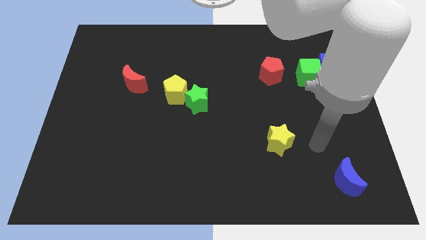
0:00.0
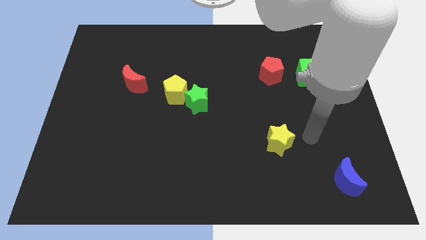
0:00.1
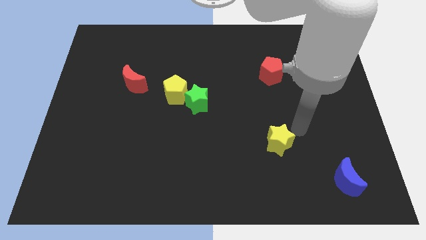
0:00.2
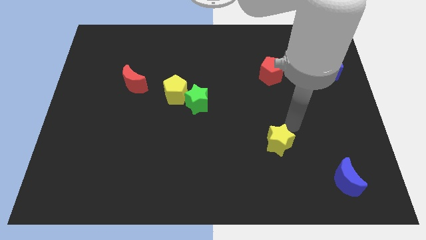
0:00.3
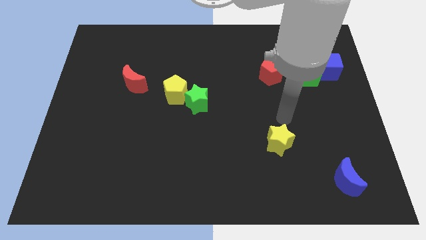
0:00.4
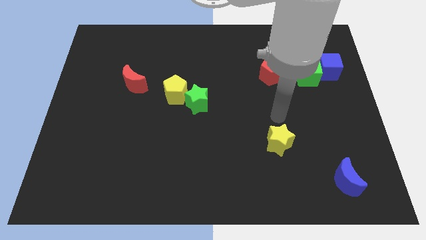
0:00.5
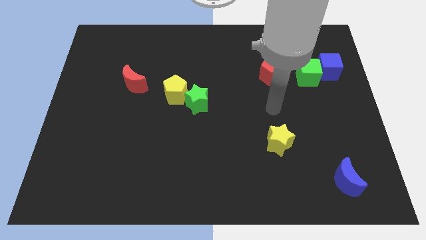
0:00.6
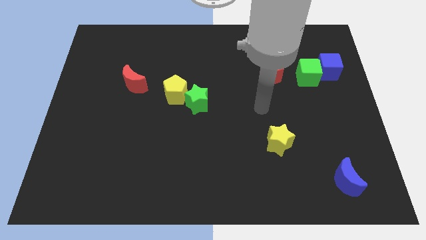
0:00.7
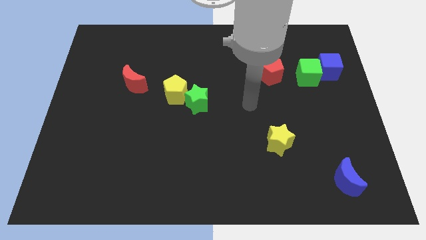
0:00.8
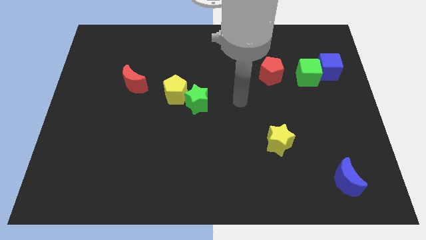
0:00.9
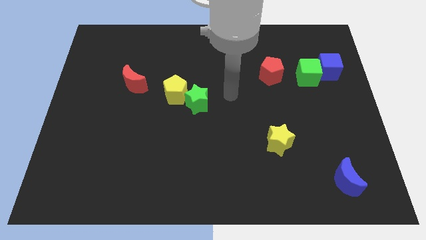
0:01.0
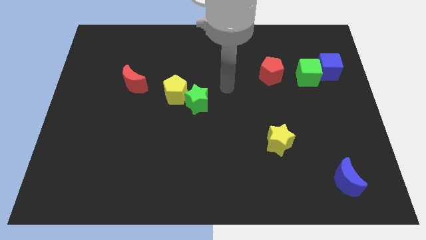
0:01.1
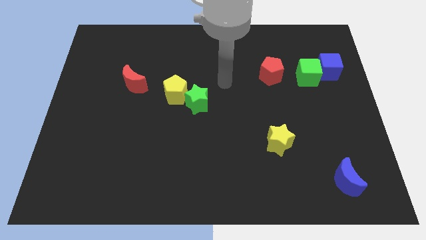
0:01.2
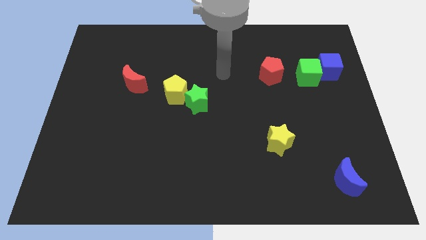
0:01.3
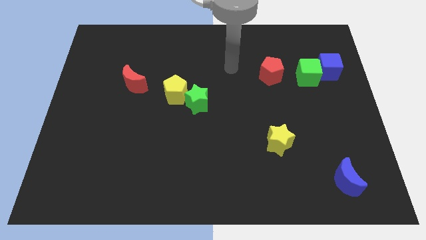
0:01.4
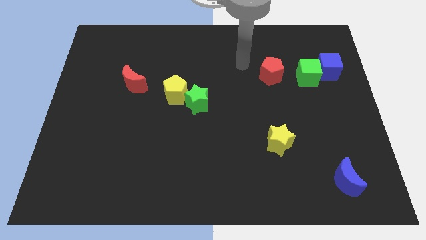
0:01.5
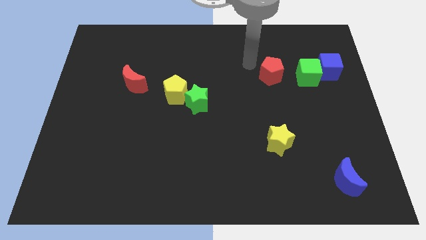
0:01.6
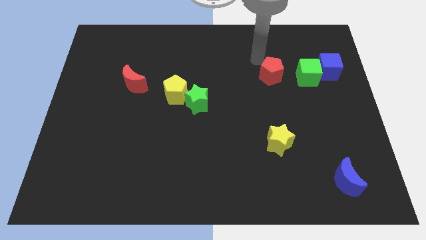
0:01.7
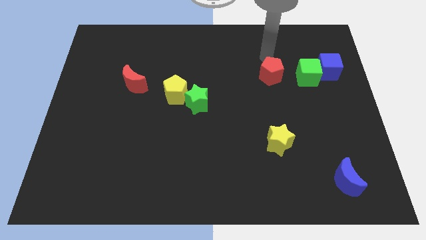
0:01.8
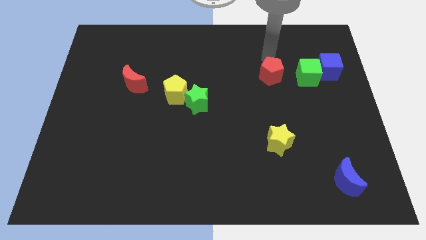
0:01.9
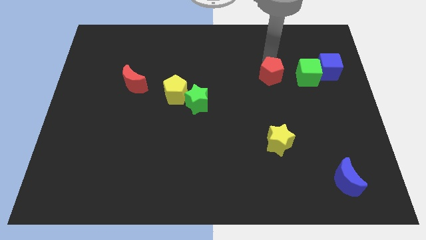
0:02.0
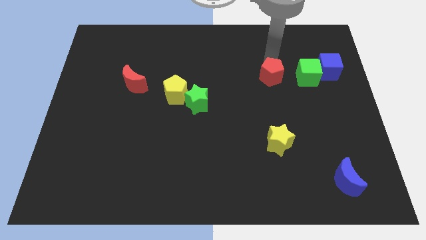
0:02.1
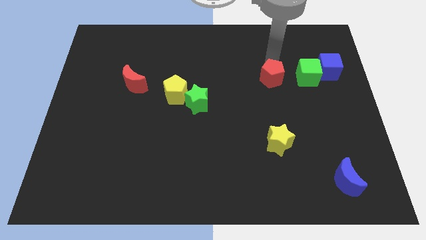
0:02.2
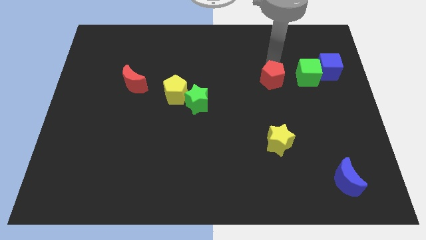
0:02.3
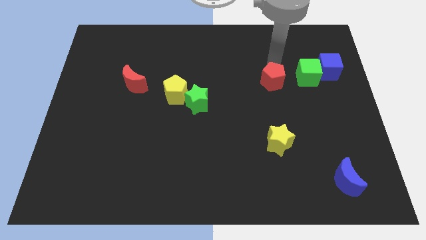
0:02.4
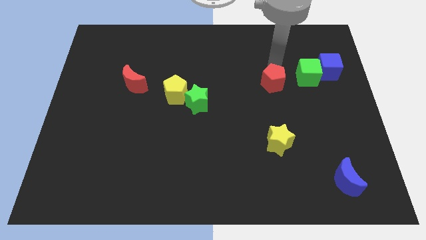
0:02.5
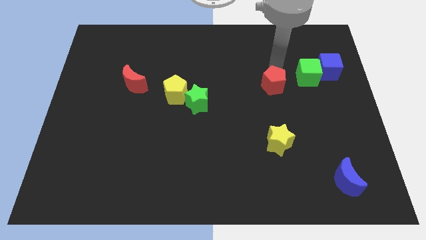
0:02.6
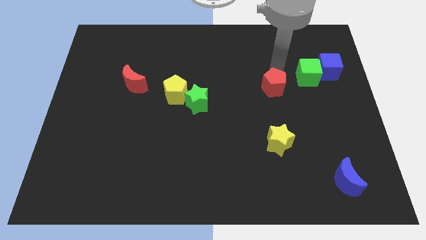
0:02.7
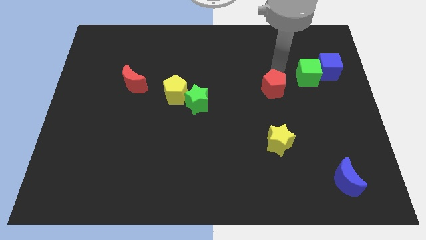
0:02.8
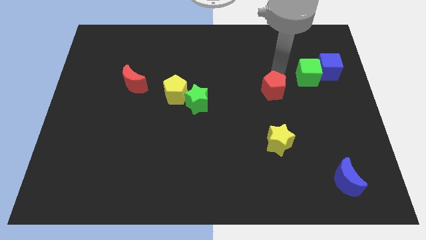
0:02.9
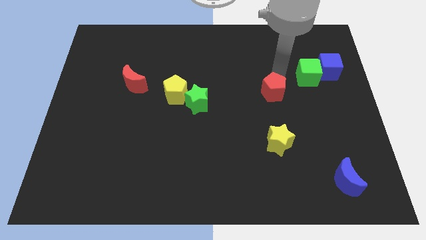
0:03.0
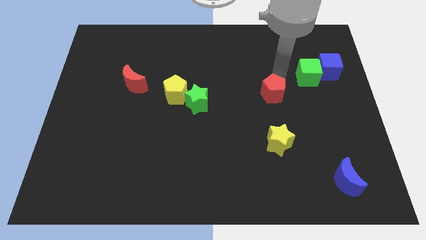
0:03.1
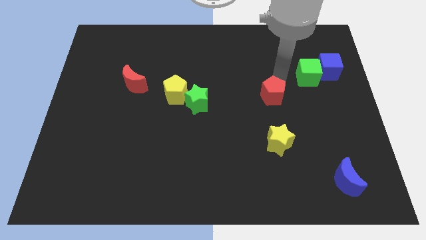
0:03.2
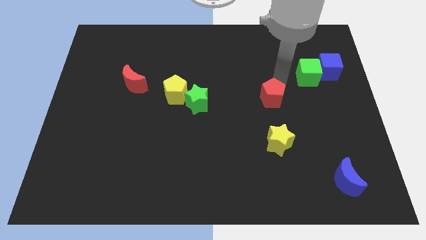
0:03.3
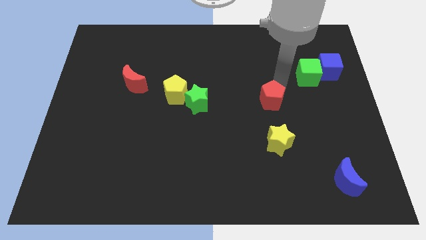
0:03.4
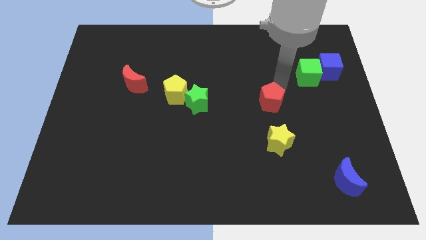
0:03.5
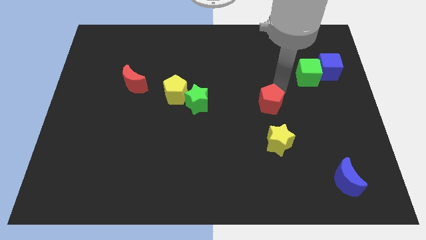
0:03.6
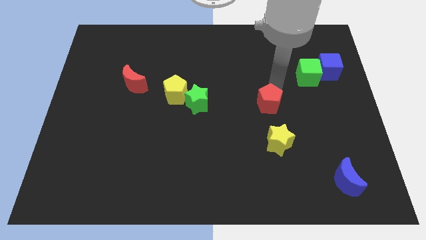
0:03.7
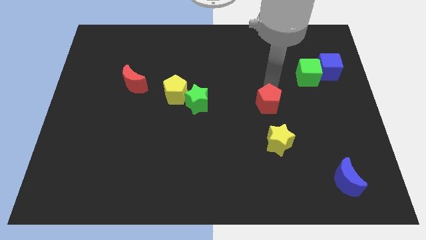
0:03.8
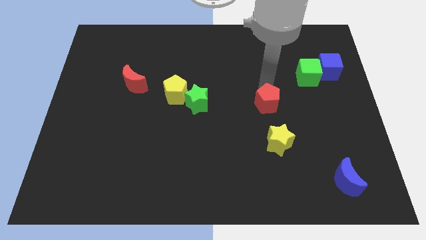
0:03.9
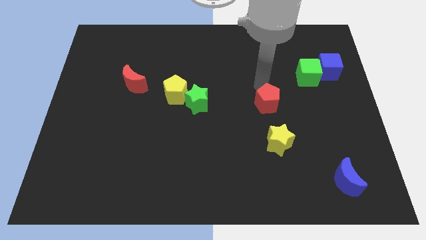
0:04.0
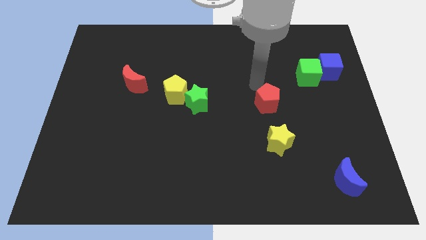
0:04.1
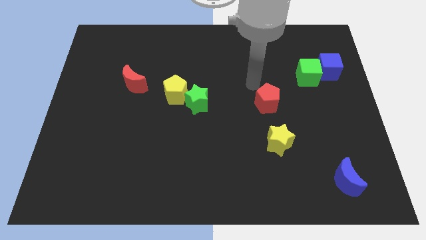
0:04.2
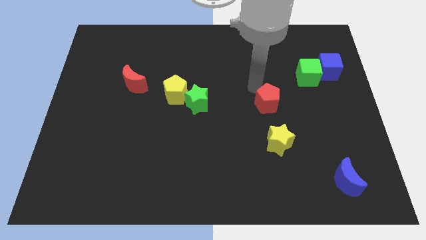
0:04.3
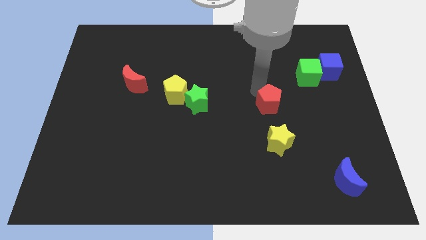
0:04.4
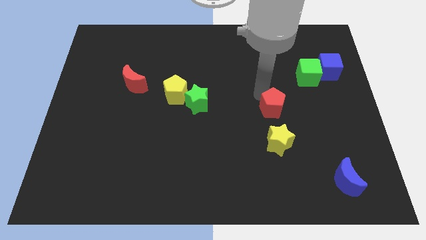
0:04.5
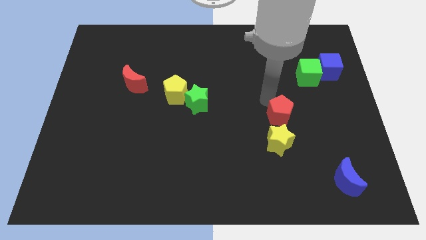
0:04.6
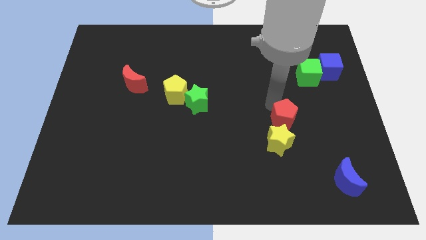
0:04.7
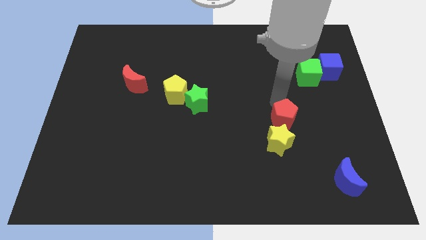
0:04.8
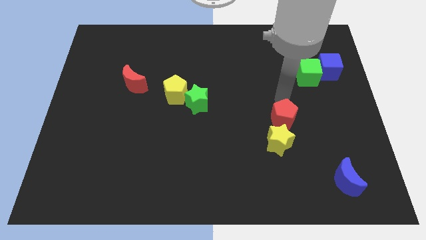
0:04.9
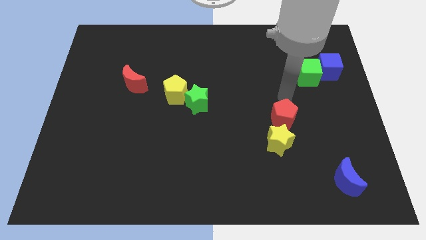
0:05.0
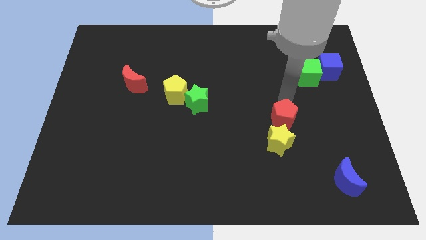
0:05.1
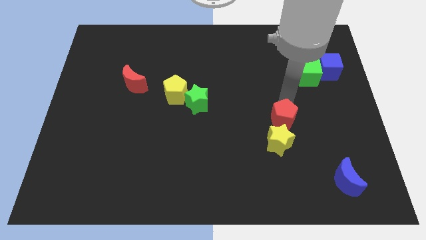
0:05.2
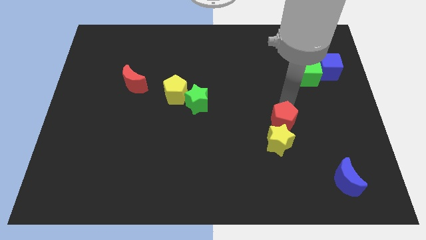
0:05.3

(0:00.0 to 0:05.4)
push the red pentagon next to the yellow star

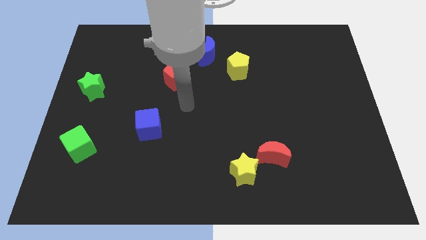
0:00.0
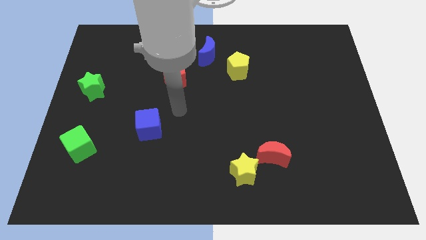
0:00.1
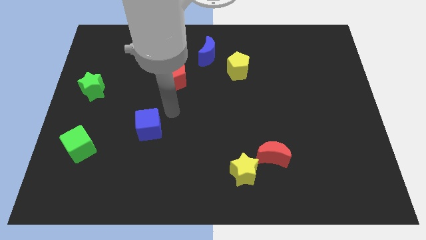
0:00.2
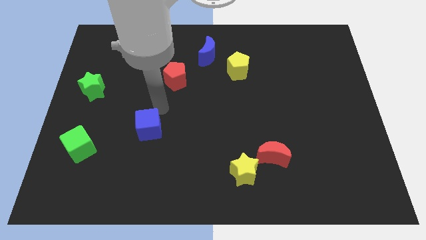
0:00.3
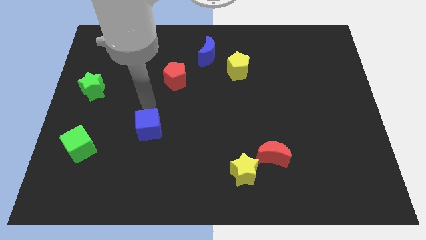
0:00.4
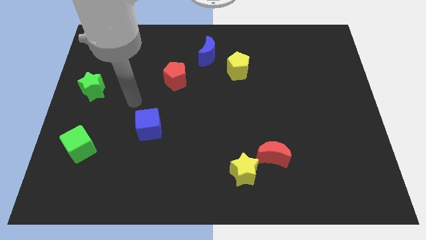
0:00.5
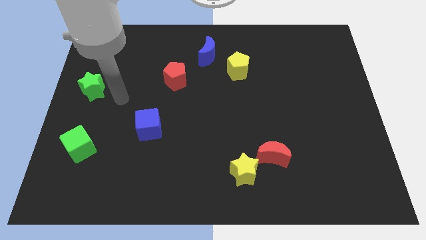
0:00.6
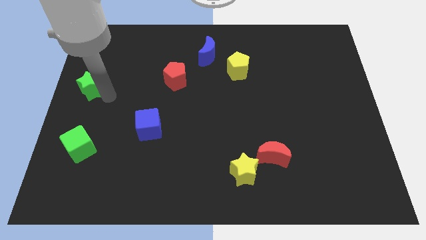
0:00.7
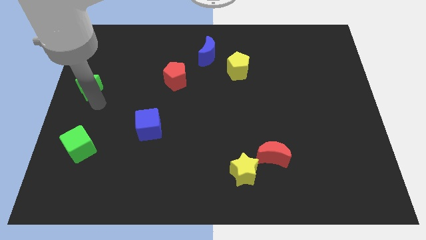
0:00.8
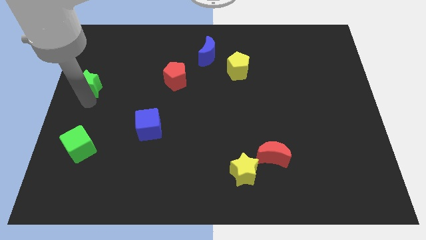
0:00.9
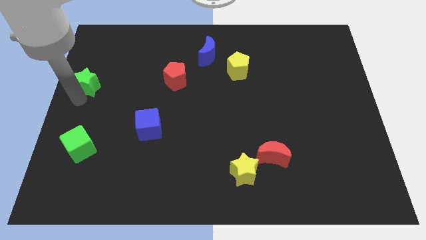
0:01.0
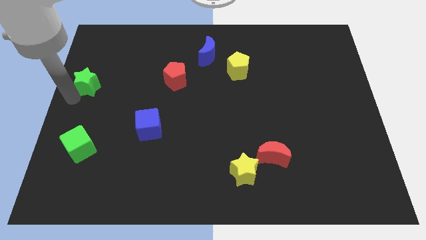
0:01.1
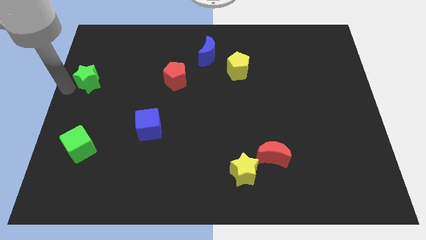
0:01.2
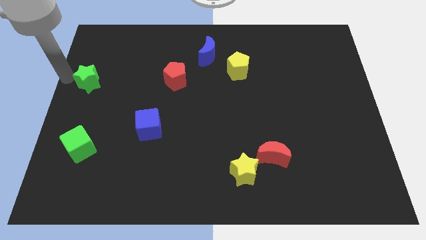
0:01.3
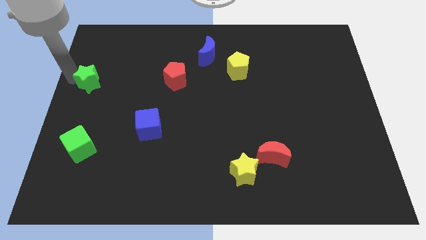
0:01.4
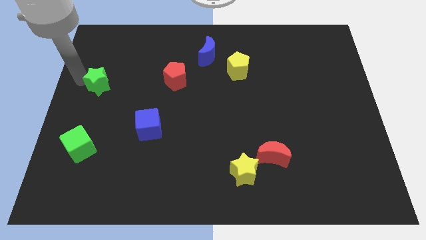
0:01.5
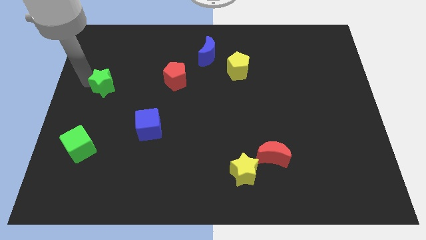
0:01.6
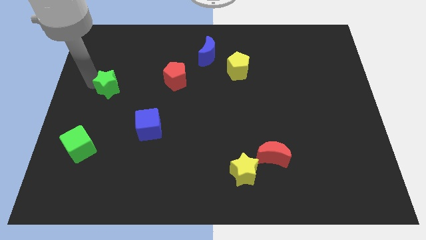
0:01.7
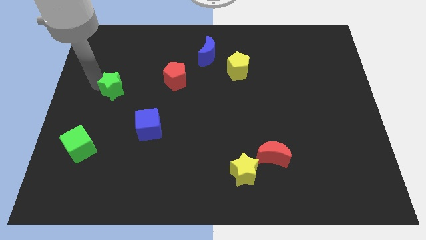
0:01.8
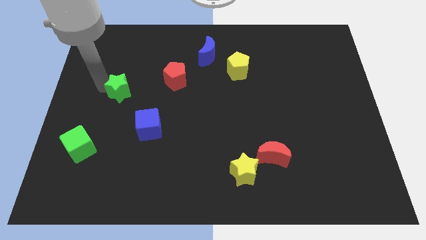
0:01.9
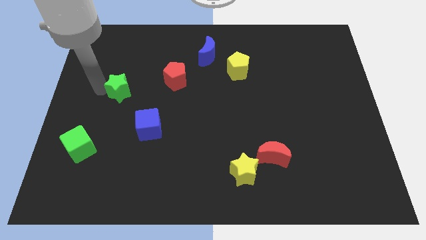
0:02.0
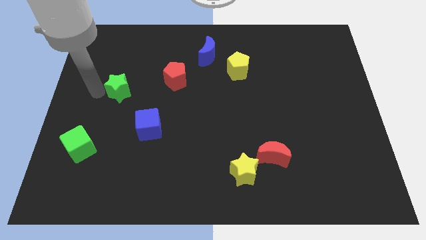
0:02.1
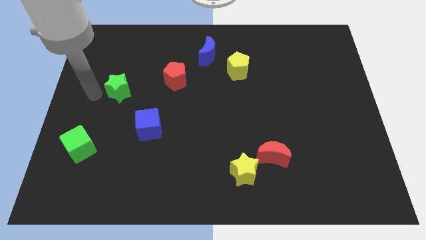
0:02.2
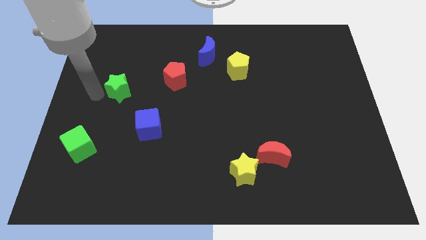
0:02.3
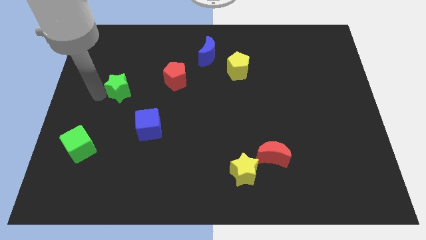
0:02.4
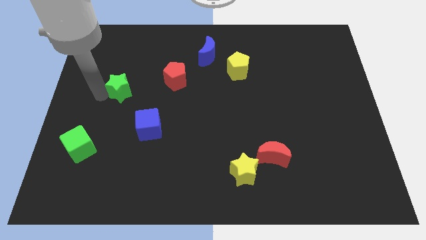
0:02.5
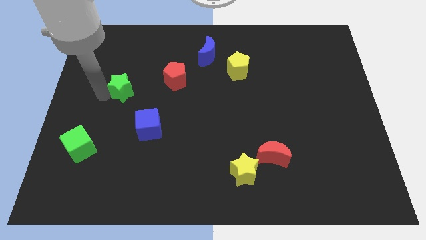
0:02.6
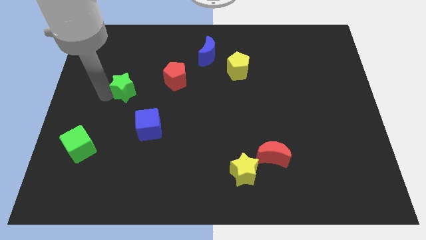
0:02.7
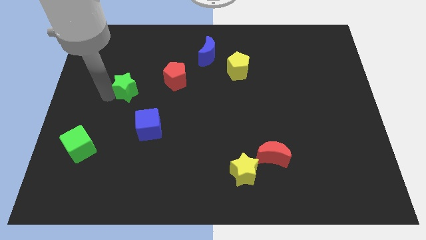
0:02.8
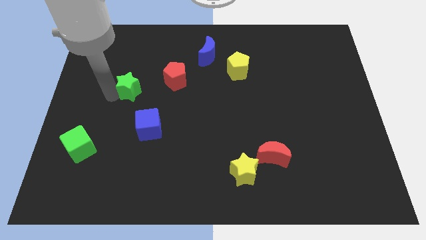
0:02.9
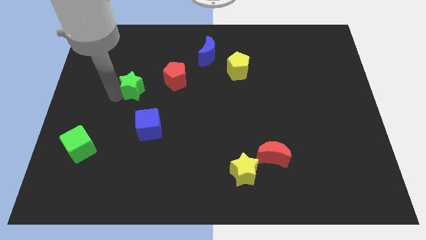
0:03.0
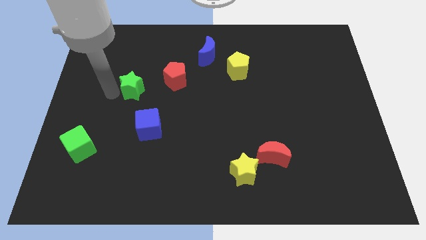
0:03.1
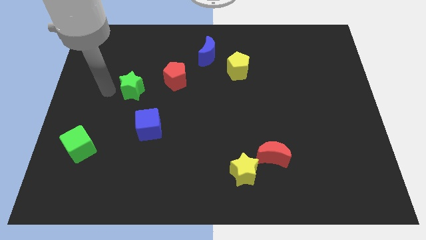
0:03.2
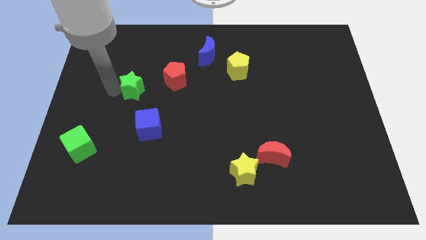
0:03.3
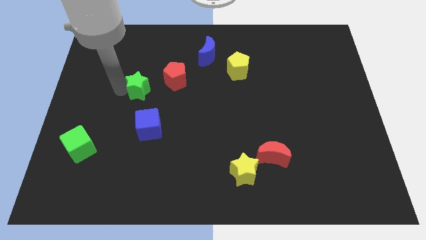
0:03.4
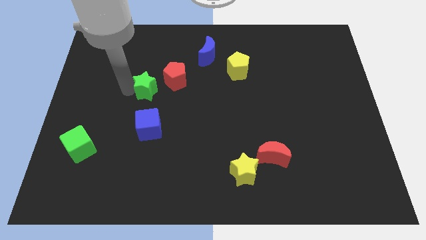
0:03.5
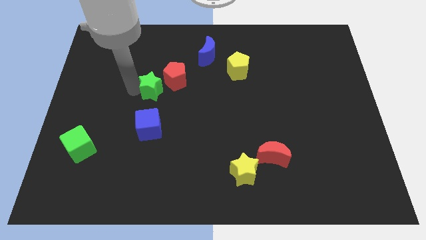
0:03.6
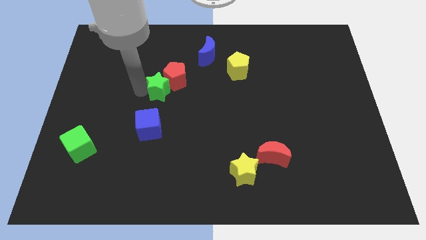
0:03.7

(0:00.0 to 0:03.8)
put the green star next to the red pentagon
